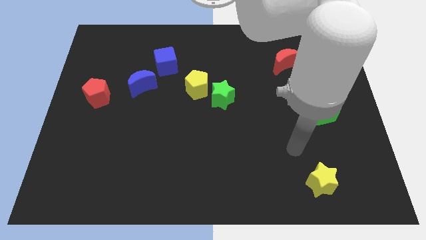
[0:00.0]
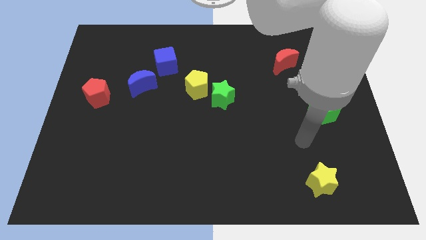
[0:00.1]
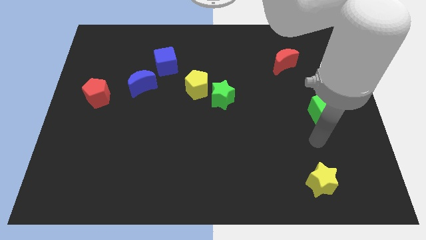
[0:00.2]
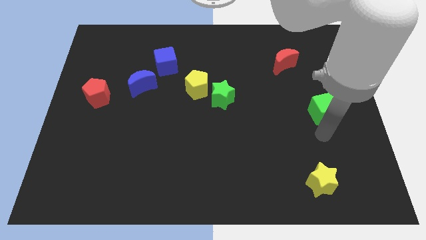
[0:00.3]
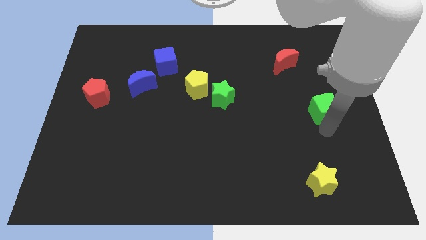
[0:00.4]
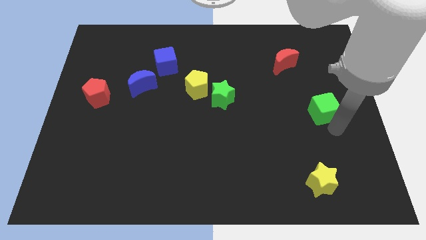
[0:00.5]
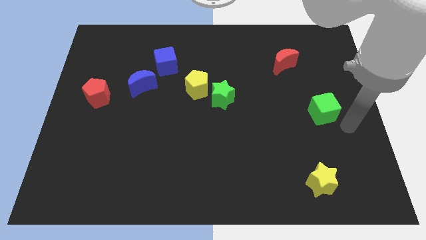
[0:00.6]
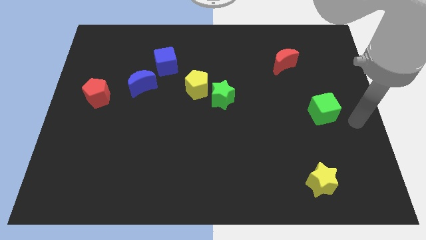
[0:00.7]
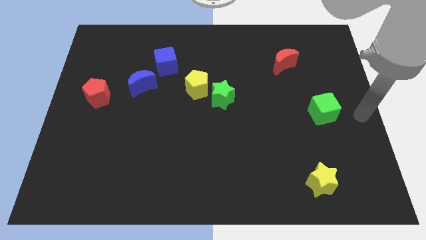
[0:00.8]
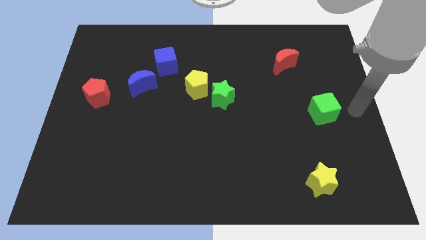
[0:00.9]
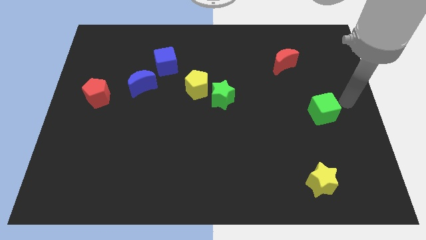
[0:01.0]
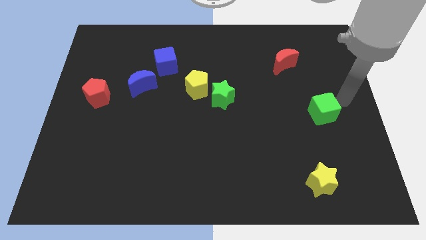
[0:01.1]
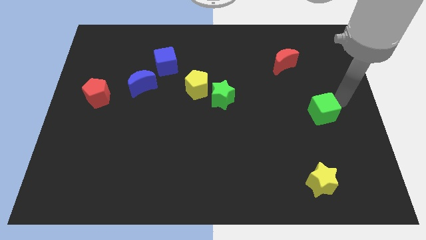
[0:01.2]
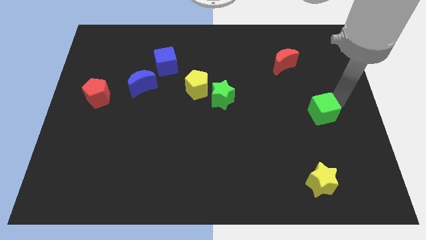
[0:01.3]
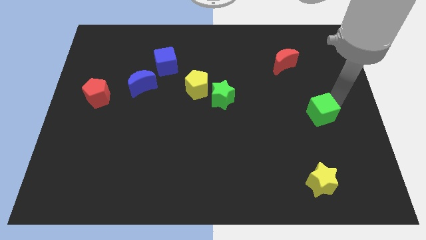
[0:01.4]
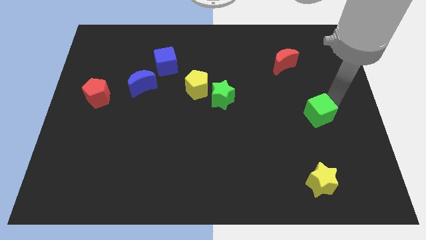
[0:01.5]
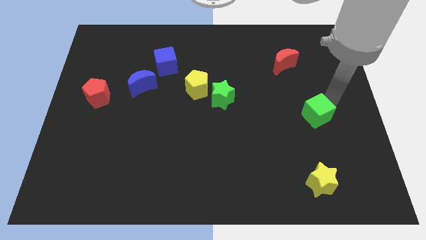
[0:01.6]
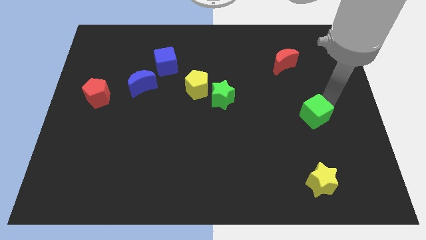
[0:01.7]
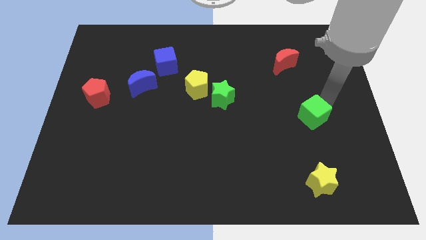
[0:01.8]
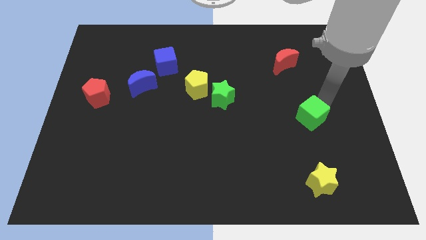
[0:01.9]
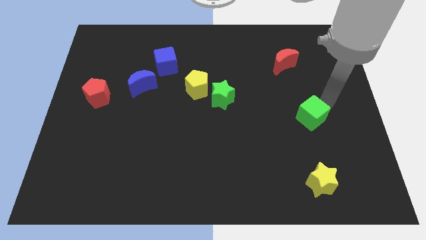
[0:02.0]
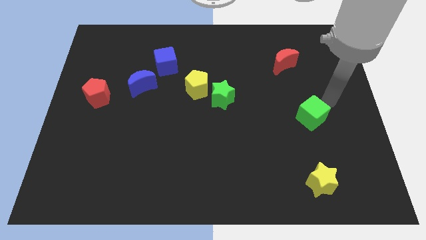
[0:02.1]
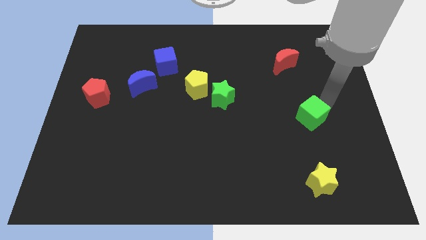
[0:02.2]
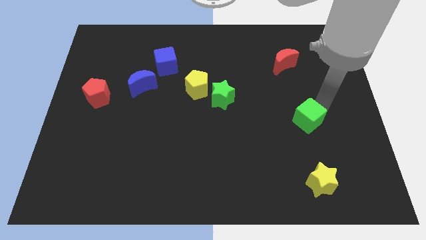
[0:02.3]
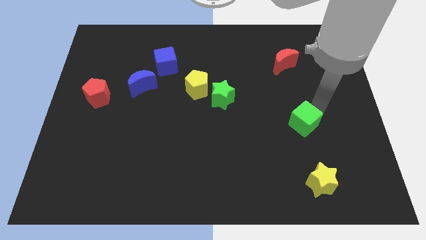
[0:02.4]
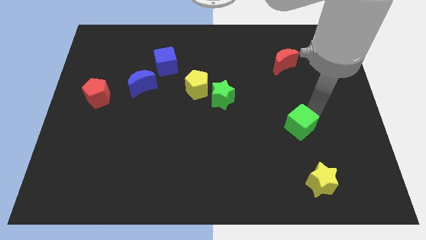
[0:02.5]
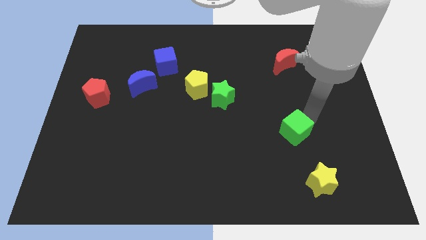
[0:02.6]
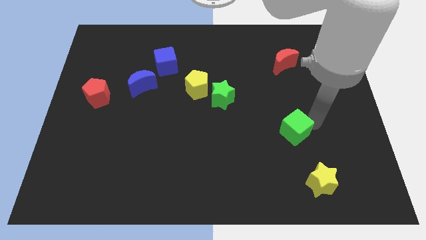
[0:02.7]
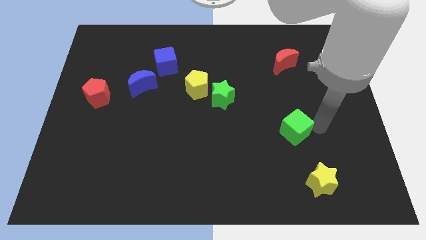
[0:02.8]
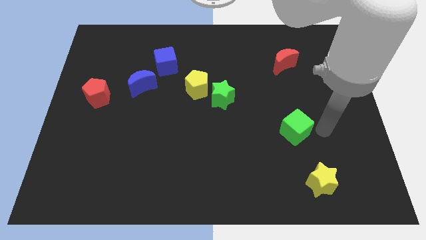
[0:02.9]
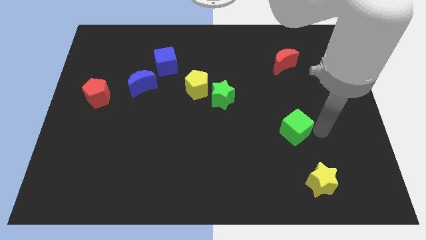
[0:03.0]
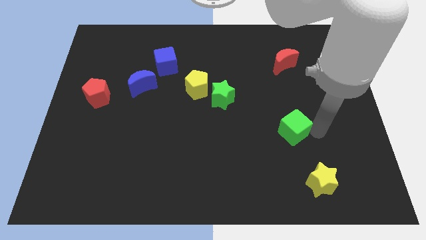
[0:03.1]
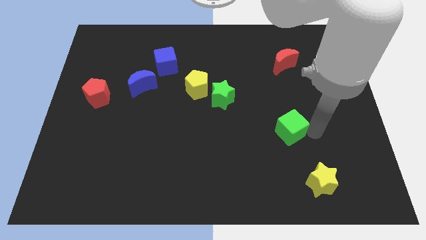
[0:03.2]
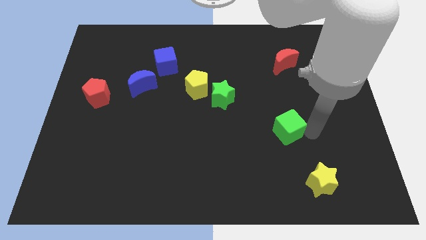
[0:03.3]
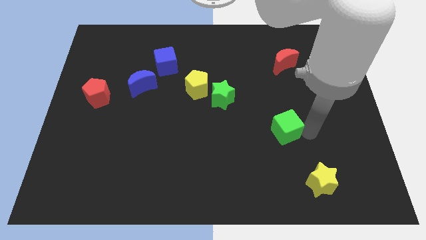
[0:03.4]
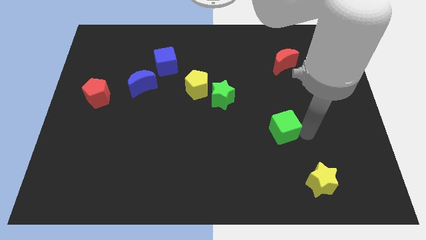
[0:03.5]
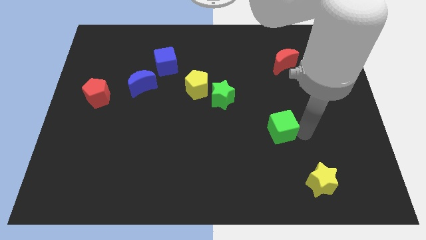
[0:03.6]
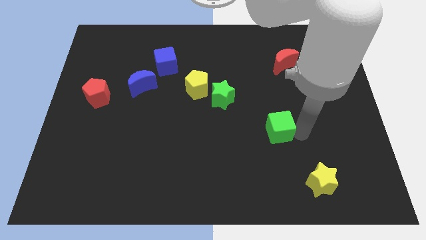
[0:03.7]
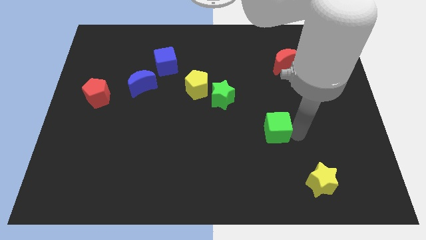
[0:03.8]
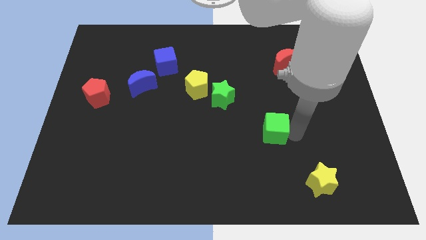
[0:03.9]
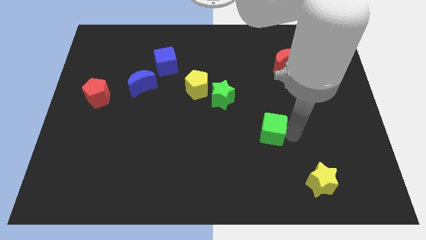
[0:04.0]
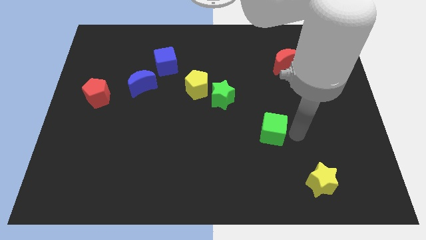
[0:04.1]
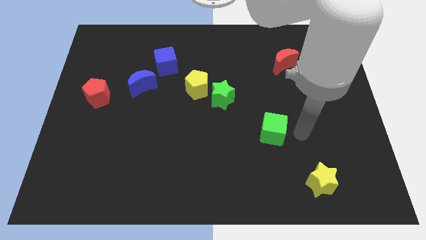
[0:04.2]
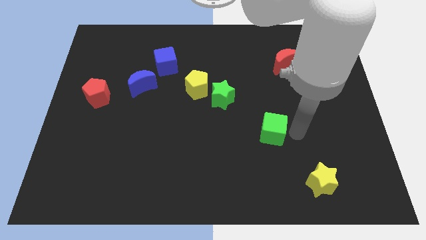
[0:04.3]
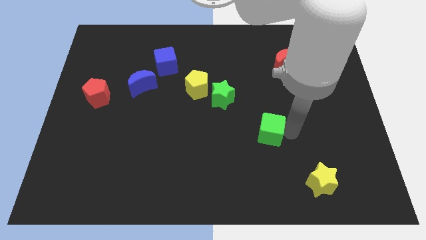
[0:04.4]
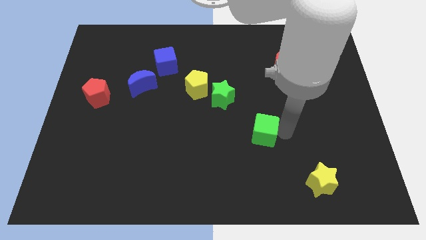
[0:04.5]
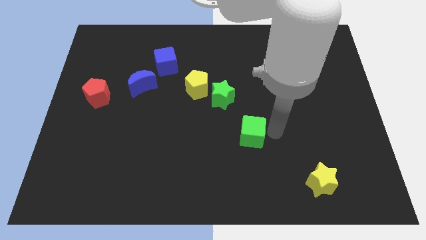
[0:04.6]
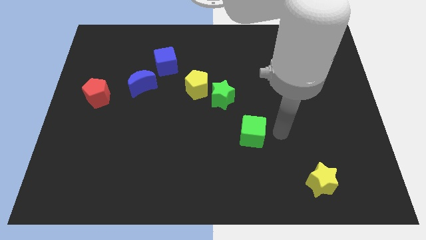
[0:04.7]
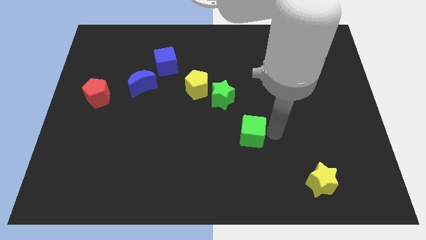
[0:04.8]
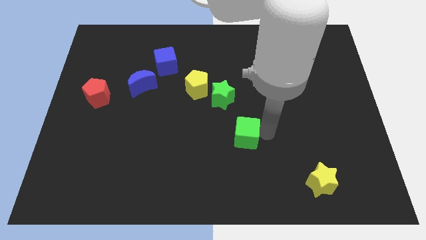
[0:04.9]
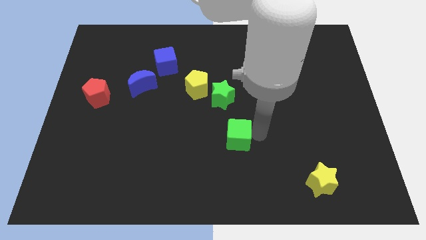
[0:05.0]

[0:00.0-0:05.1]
push the green cube below the green star

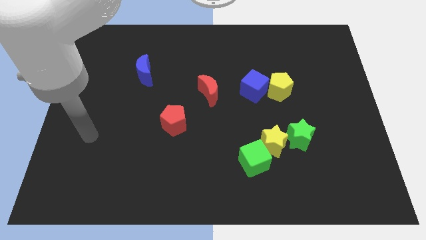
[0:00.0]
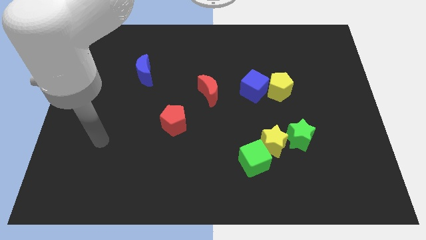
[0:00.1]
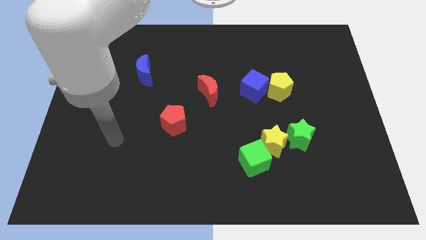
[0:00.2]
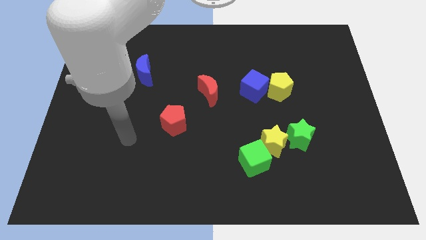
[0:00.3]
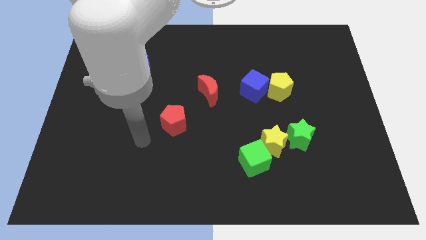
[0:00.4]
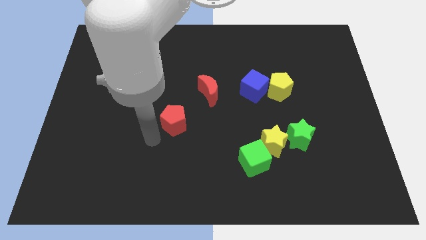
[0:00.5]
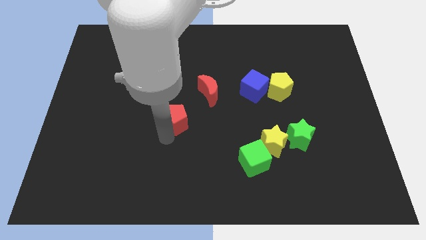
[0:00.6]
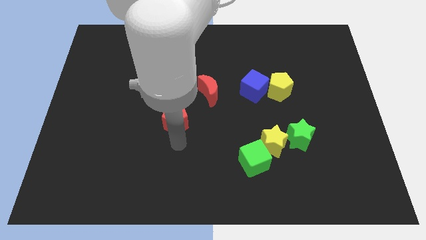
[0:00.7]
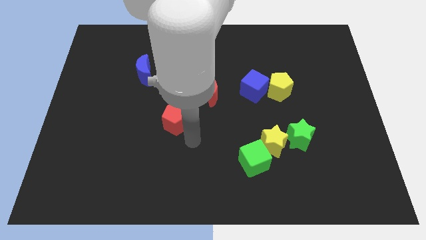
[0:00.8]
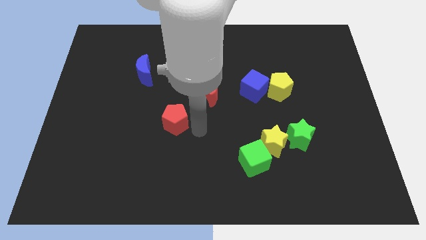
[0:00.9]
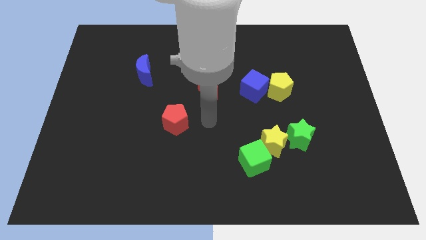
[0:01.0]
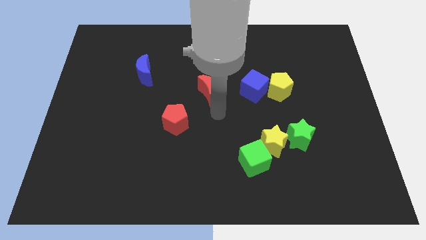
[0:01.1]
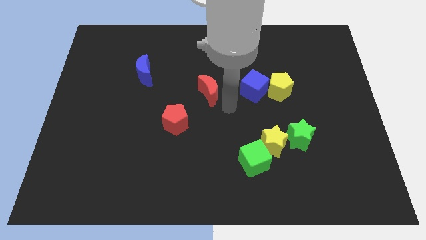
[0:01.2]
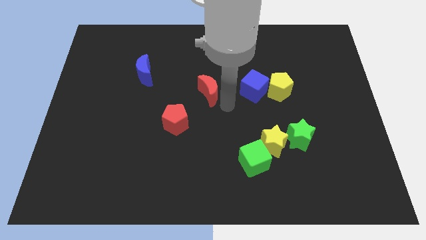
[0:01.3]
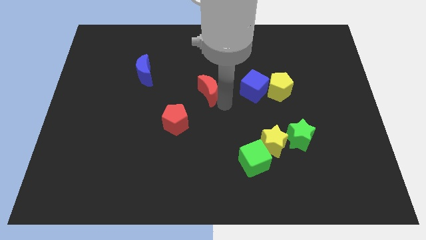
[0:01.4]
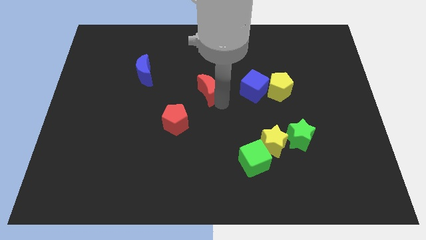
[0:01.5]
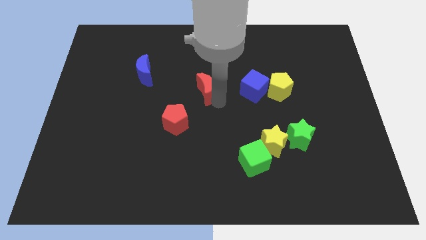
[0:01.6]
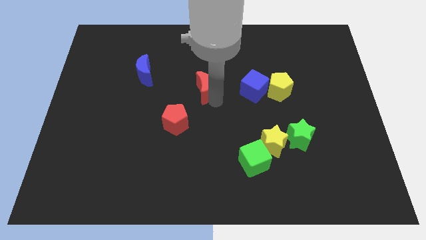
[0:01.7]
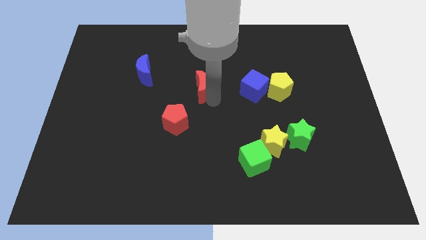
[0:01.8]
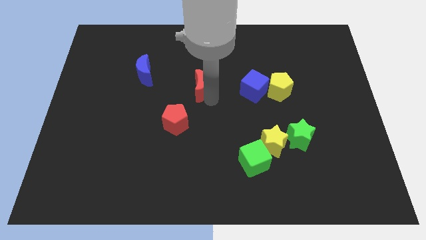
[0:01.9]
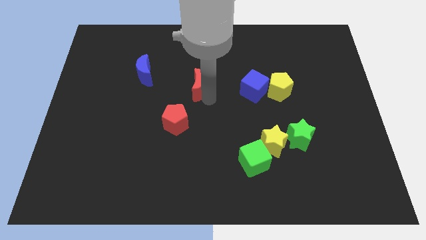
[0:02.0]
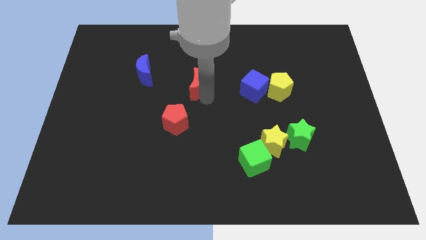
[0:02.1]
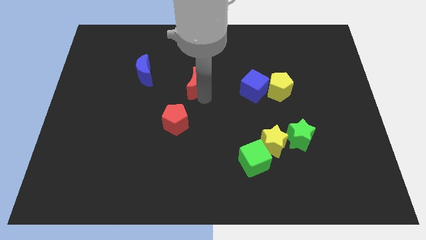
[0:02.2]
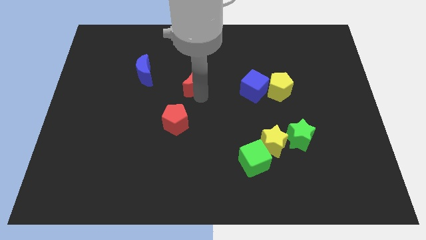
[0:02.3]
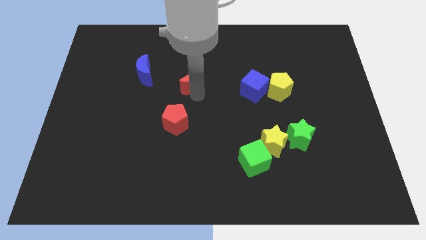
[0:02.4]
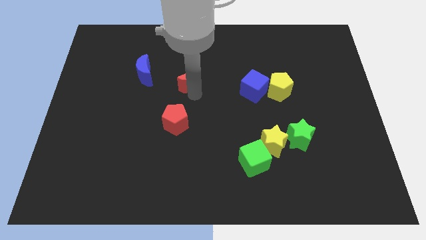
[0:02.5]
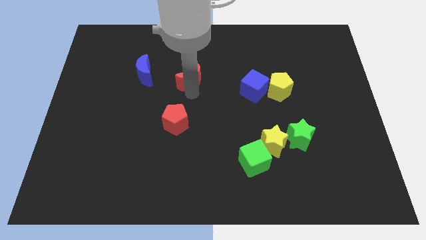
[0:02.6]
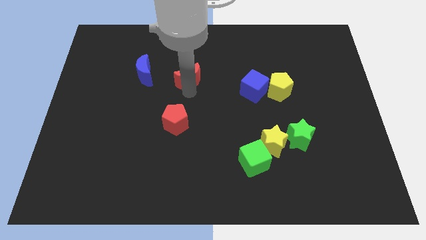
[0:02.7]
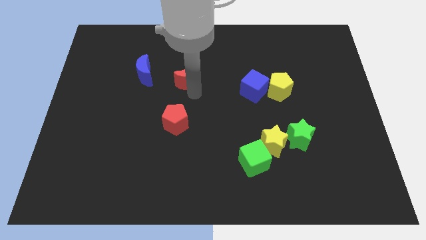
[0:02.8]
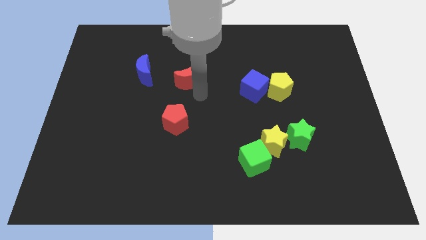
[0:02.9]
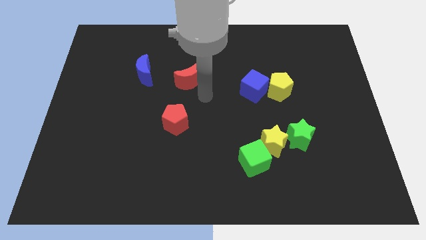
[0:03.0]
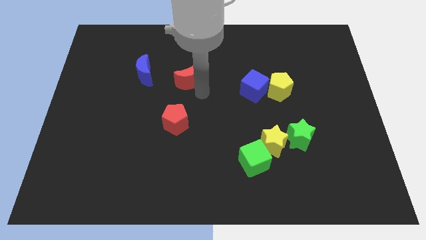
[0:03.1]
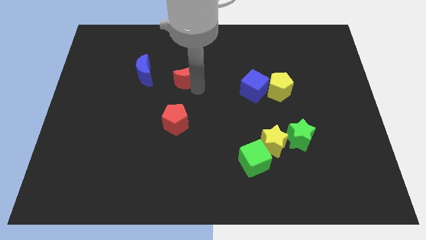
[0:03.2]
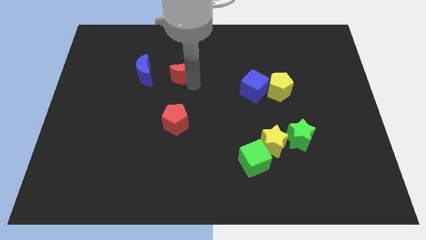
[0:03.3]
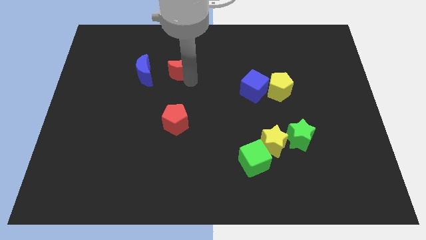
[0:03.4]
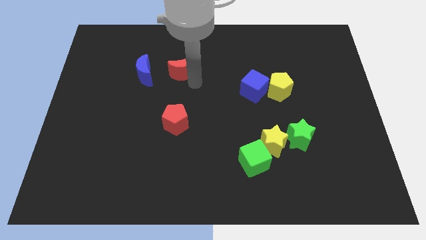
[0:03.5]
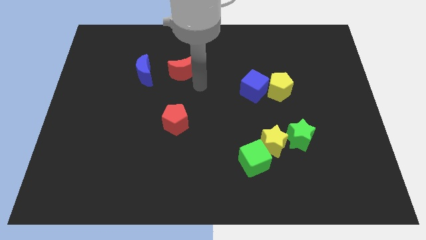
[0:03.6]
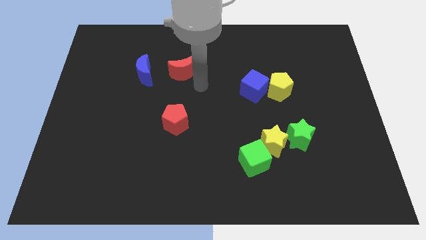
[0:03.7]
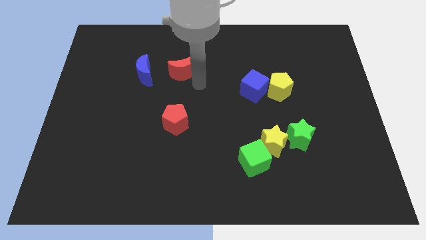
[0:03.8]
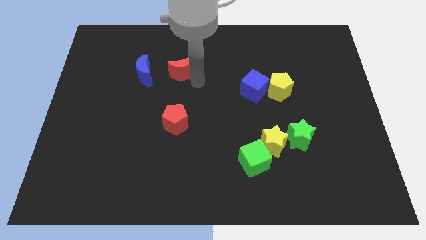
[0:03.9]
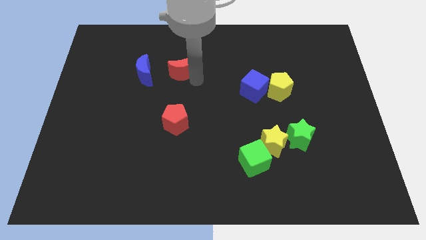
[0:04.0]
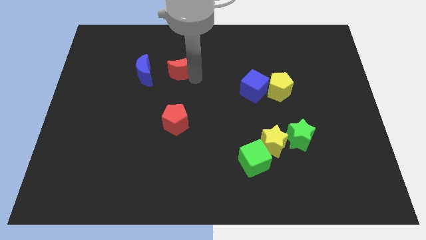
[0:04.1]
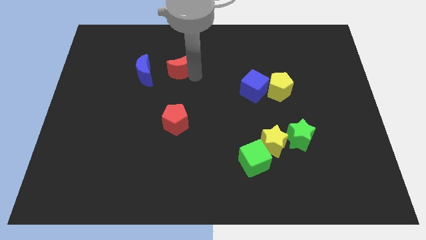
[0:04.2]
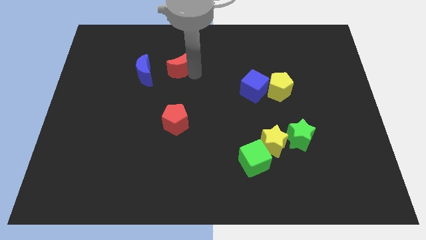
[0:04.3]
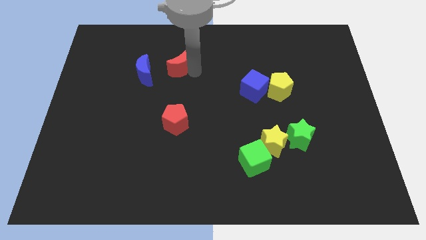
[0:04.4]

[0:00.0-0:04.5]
push the red moon to the top right of the blue moon
